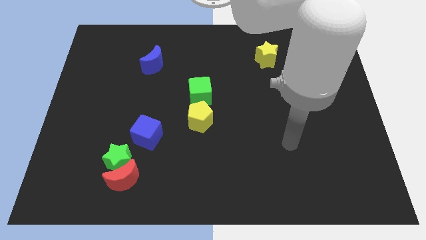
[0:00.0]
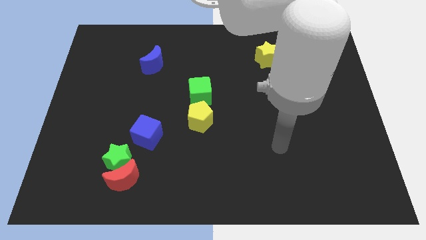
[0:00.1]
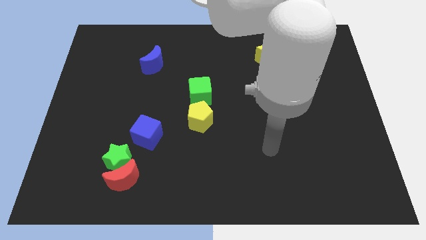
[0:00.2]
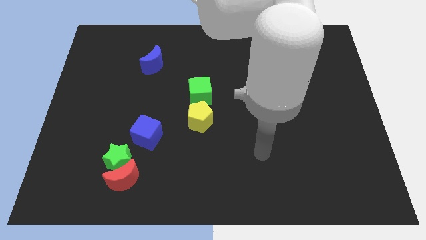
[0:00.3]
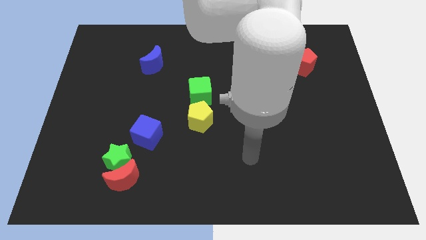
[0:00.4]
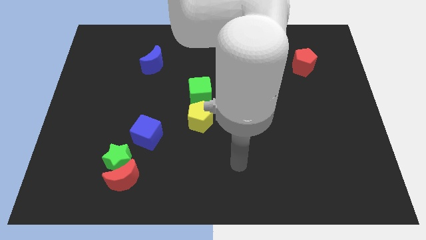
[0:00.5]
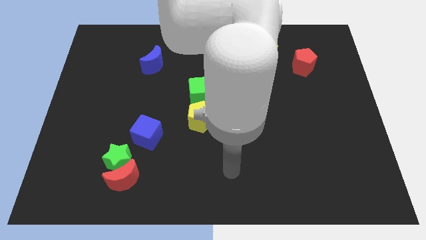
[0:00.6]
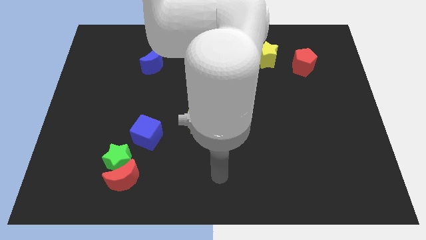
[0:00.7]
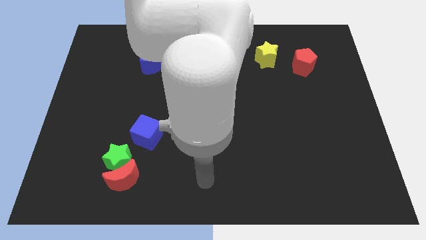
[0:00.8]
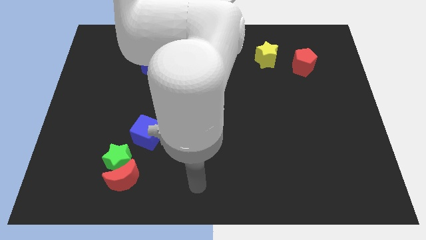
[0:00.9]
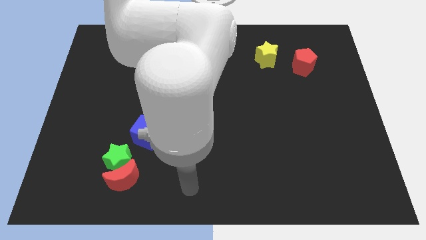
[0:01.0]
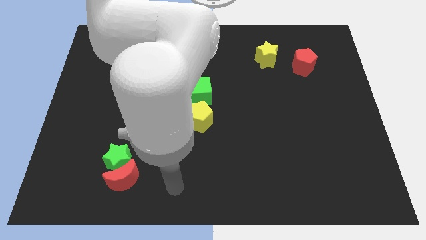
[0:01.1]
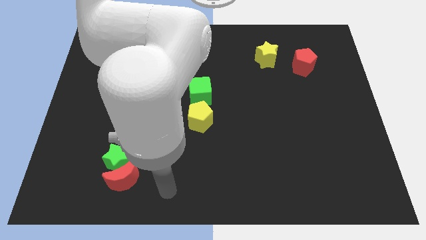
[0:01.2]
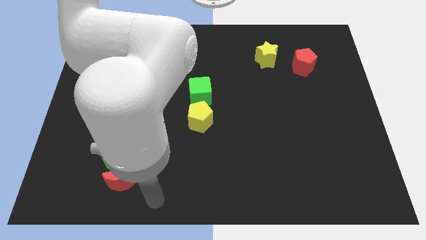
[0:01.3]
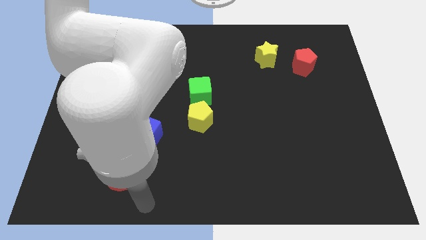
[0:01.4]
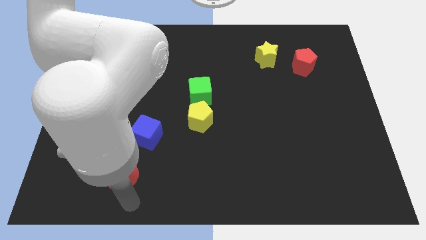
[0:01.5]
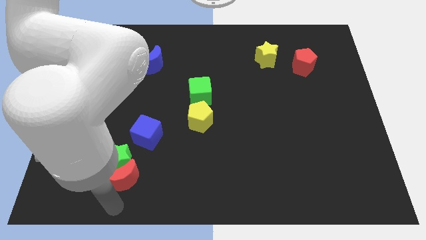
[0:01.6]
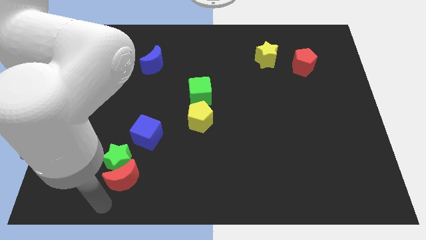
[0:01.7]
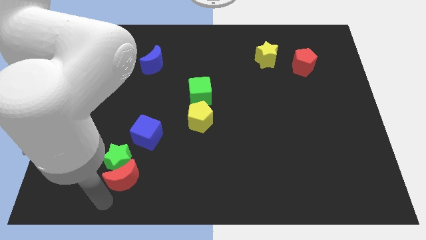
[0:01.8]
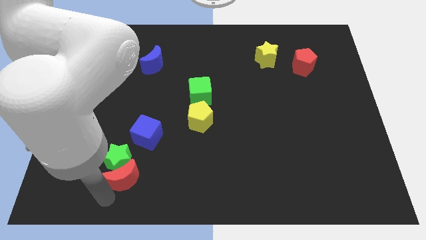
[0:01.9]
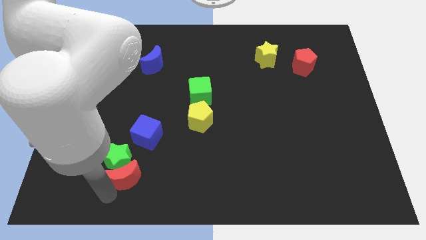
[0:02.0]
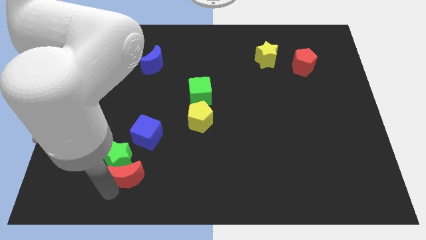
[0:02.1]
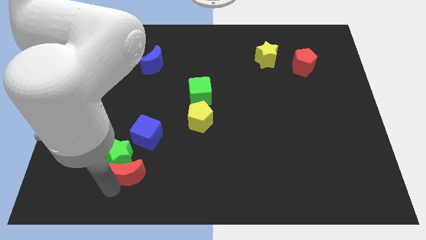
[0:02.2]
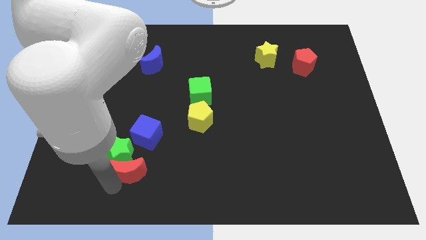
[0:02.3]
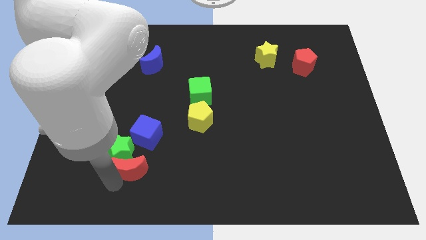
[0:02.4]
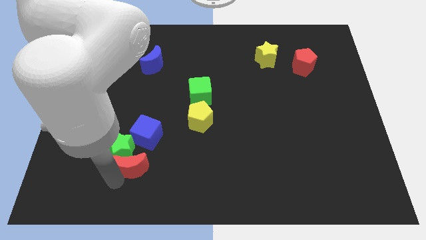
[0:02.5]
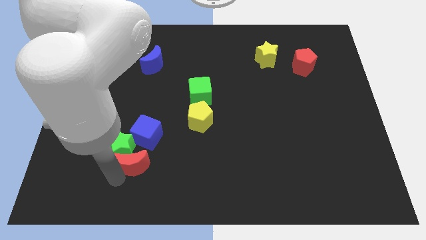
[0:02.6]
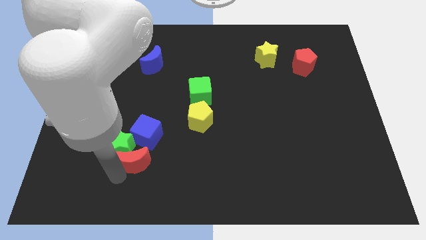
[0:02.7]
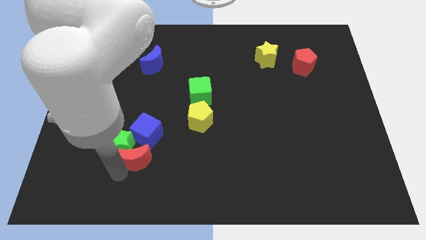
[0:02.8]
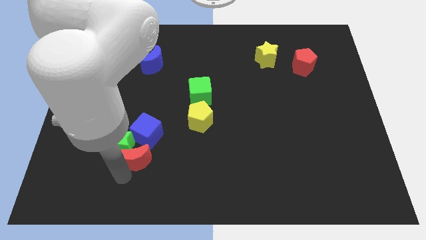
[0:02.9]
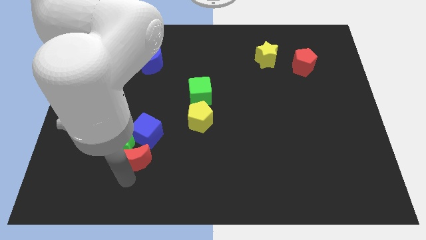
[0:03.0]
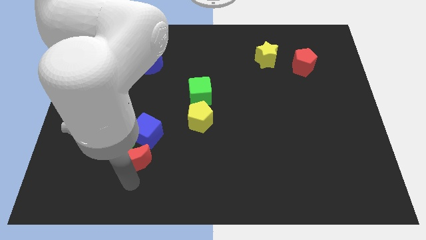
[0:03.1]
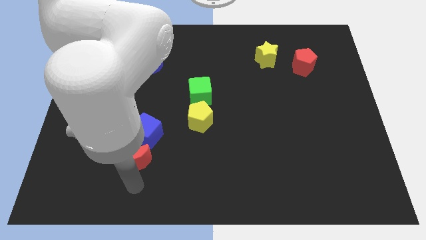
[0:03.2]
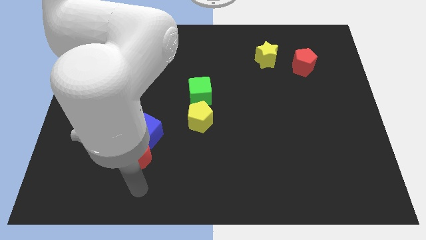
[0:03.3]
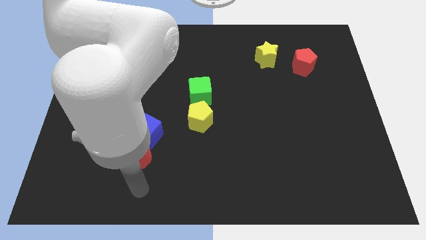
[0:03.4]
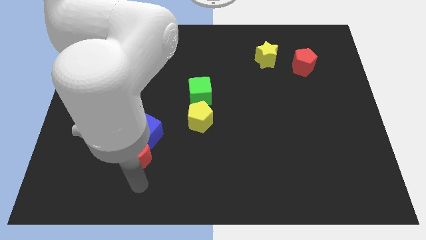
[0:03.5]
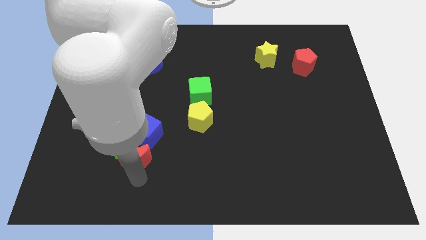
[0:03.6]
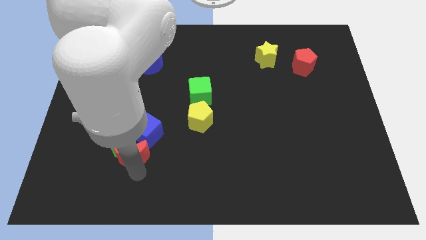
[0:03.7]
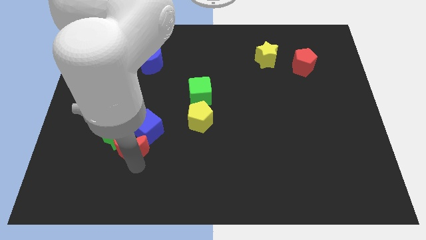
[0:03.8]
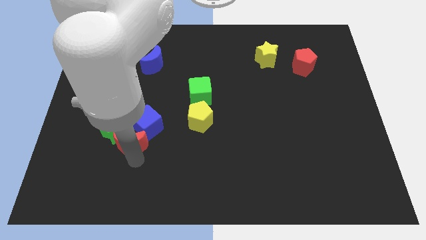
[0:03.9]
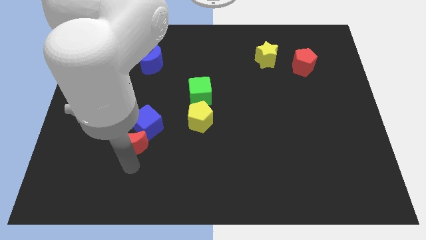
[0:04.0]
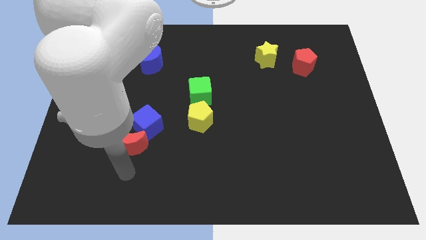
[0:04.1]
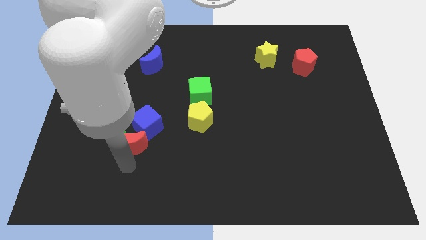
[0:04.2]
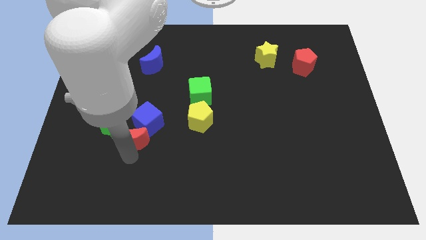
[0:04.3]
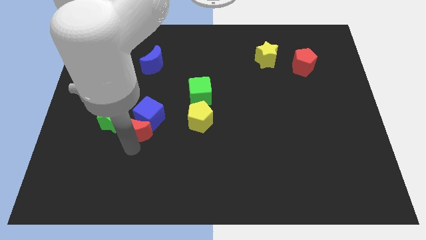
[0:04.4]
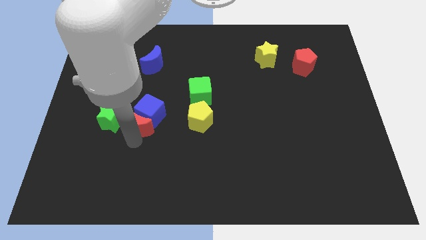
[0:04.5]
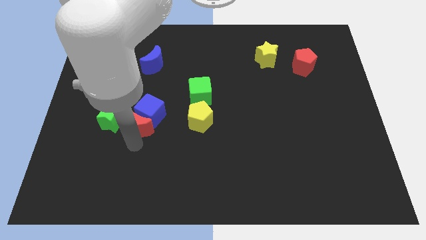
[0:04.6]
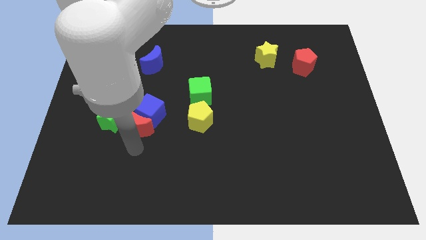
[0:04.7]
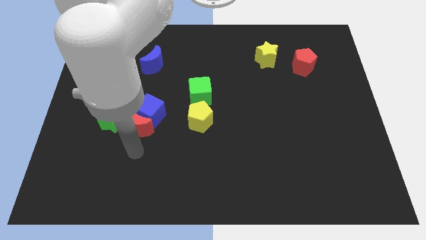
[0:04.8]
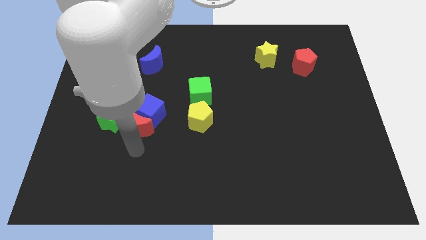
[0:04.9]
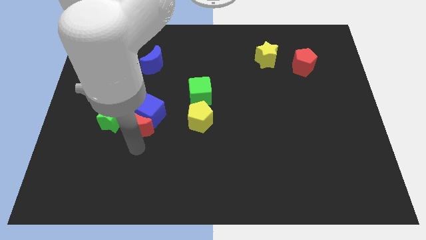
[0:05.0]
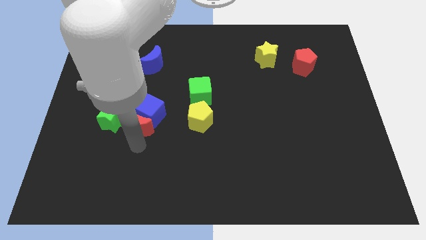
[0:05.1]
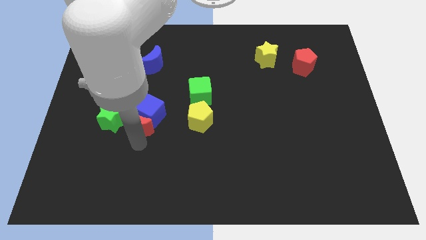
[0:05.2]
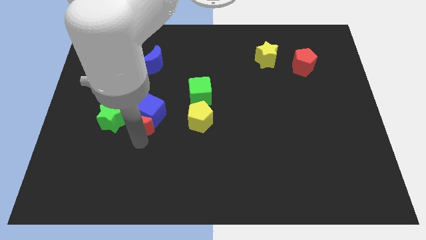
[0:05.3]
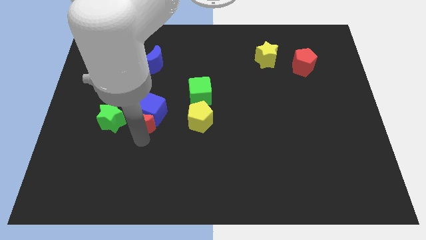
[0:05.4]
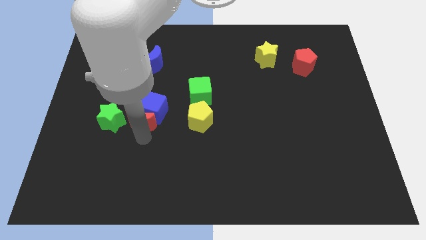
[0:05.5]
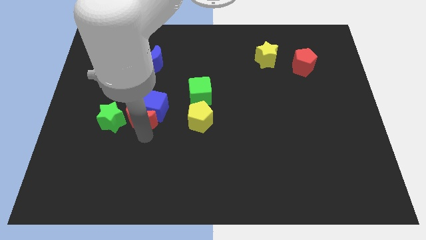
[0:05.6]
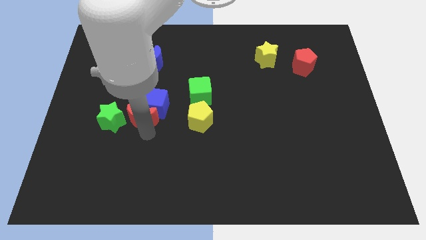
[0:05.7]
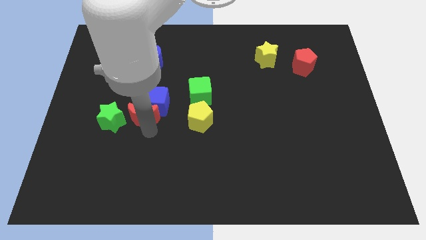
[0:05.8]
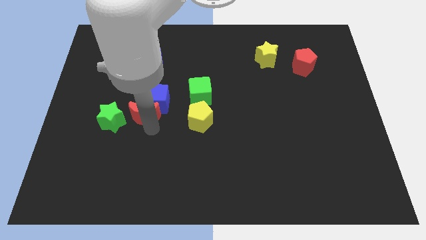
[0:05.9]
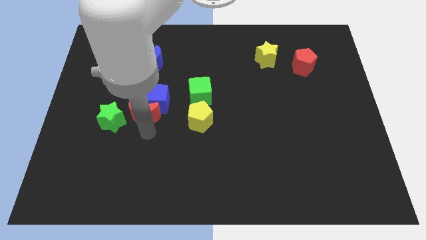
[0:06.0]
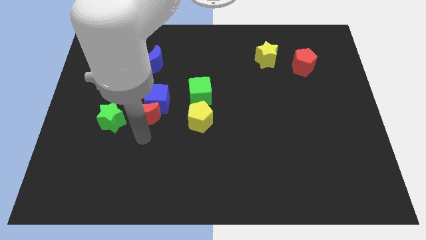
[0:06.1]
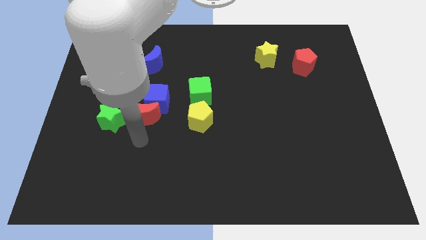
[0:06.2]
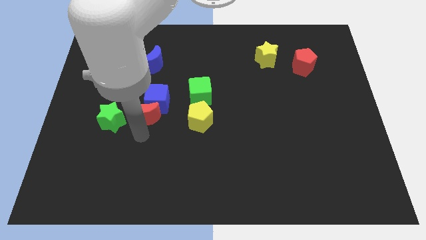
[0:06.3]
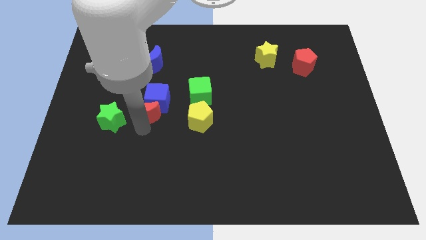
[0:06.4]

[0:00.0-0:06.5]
slide the red moon below the blue moon

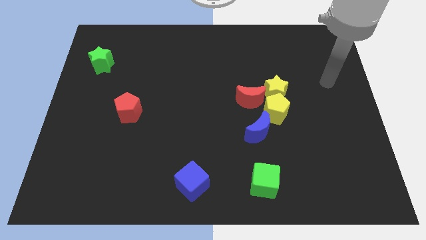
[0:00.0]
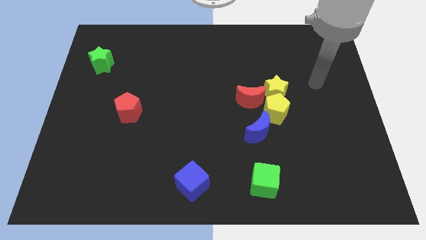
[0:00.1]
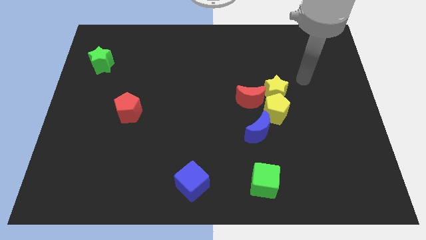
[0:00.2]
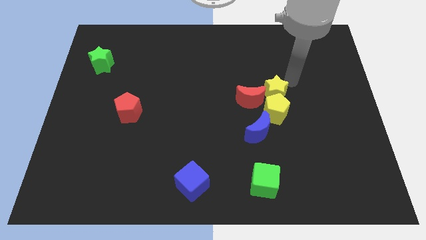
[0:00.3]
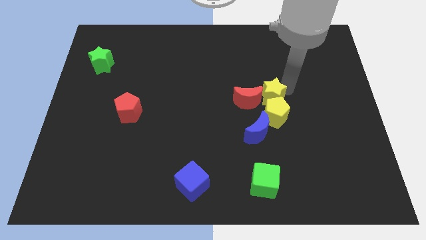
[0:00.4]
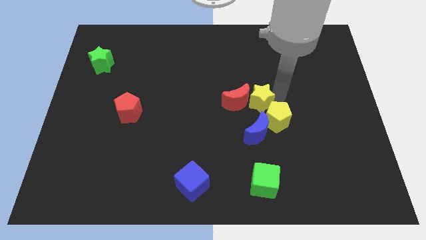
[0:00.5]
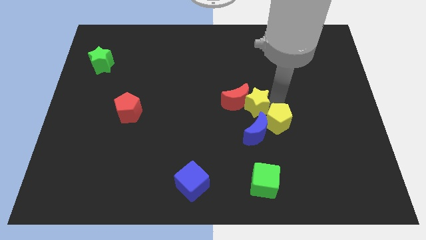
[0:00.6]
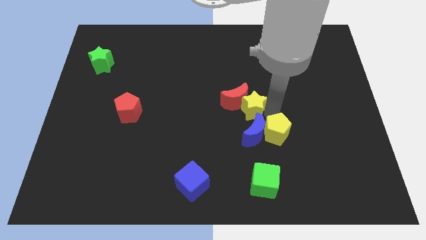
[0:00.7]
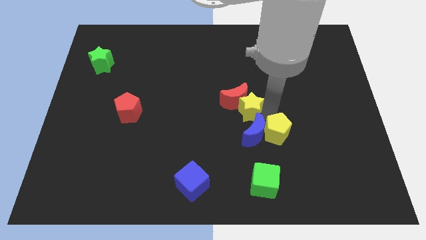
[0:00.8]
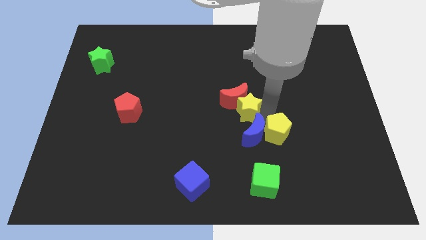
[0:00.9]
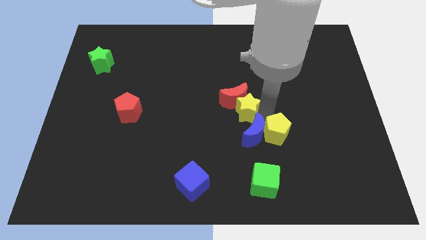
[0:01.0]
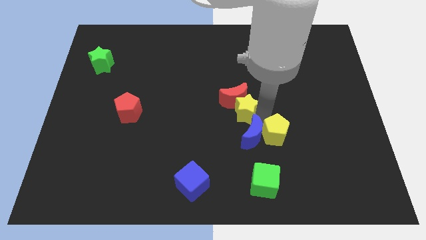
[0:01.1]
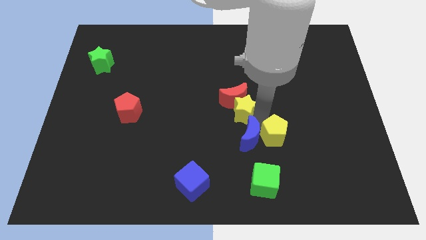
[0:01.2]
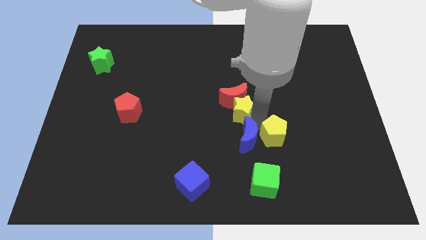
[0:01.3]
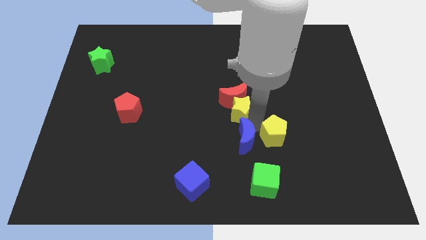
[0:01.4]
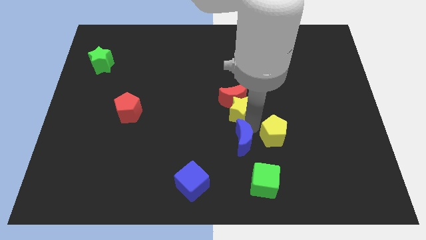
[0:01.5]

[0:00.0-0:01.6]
push the blue moon to the top left of the green cube
